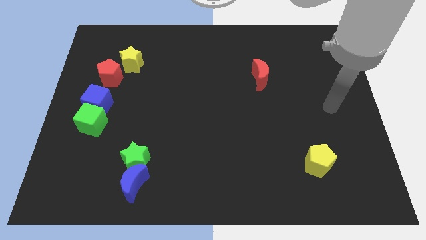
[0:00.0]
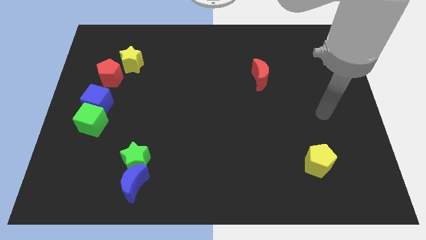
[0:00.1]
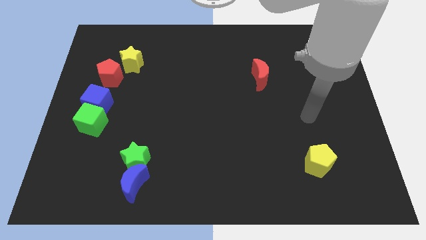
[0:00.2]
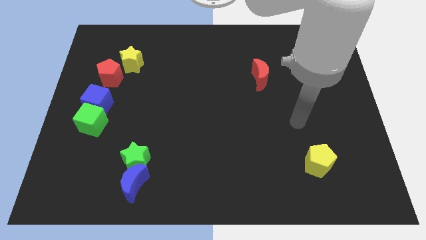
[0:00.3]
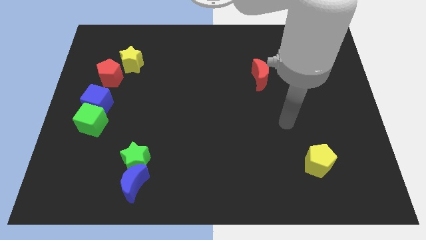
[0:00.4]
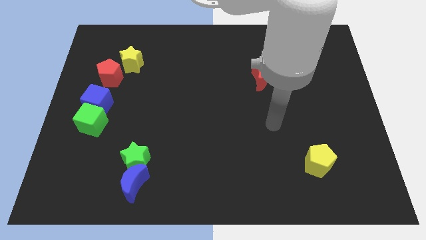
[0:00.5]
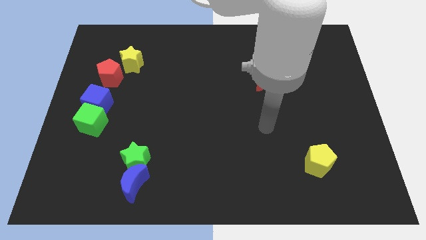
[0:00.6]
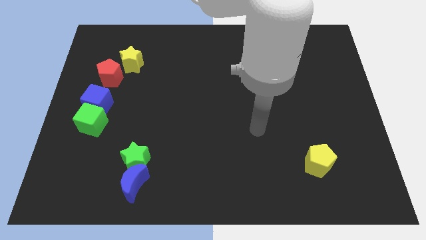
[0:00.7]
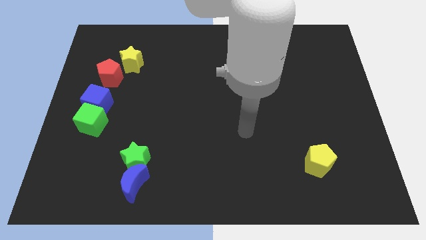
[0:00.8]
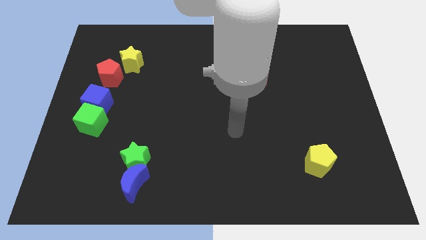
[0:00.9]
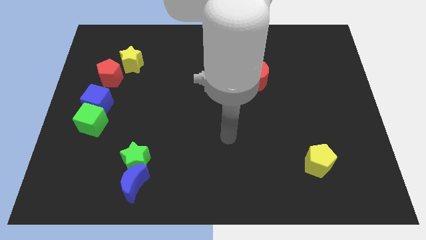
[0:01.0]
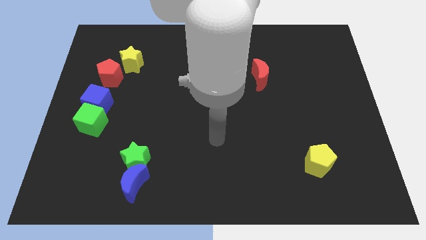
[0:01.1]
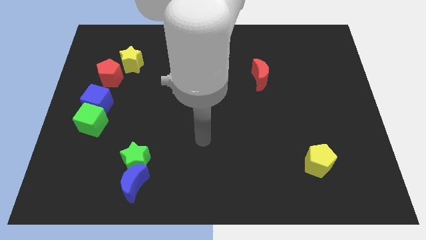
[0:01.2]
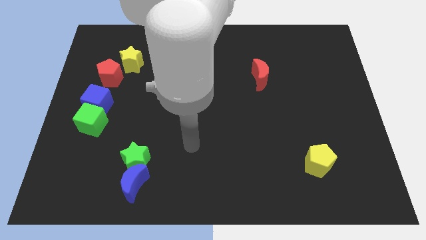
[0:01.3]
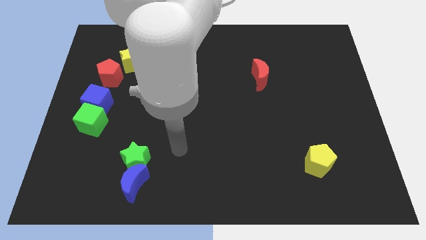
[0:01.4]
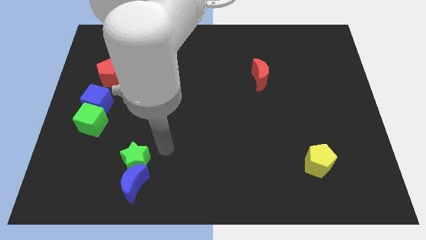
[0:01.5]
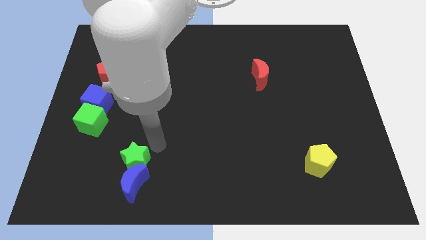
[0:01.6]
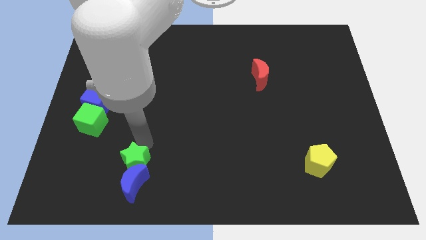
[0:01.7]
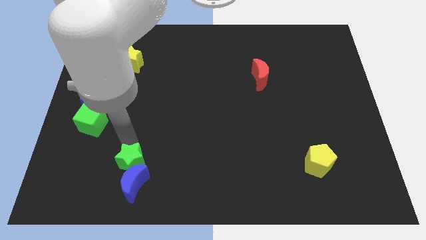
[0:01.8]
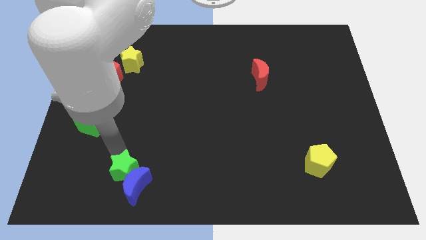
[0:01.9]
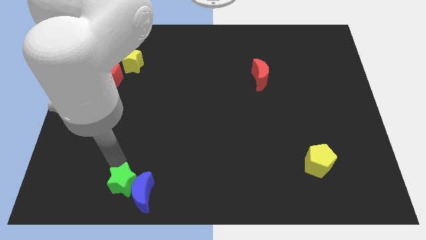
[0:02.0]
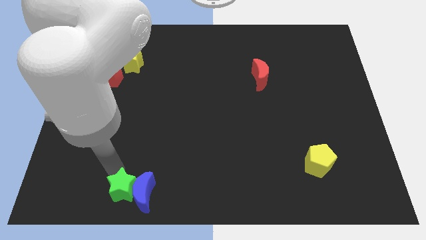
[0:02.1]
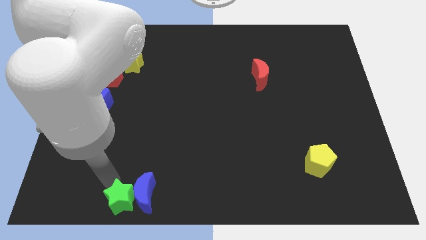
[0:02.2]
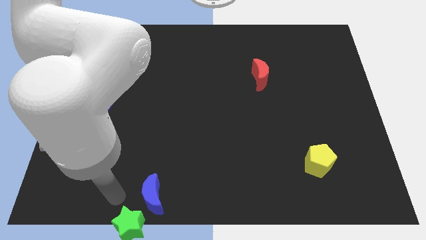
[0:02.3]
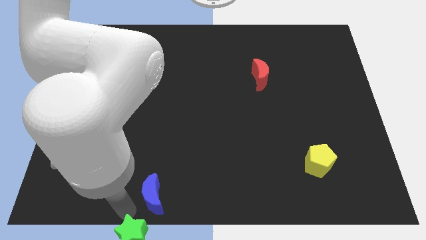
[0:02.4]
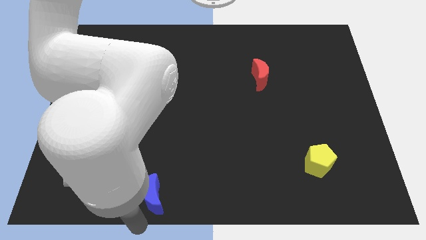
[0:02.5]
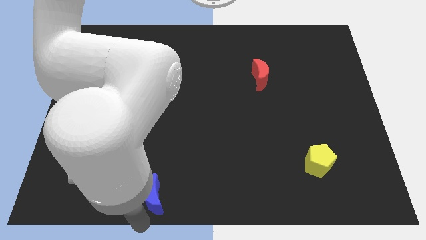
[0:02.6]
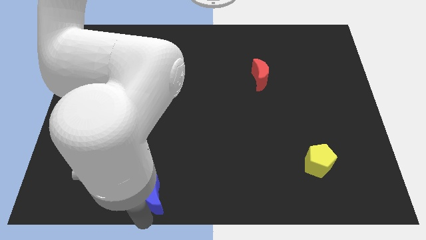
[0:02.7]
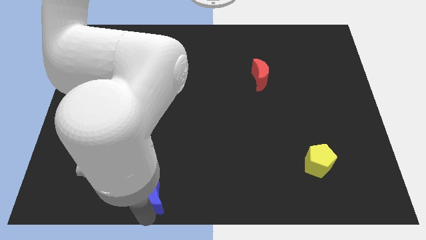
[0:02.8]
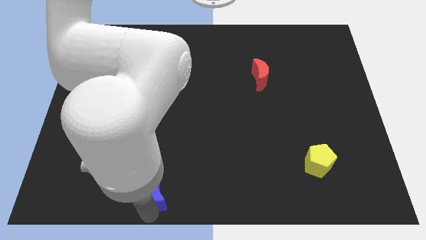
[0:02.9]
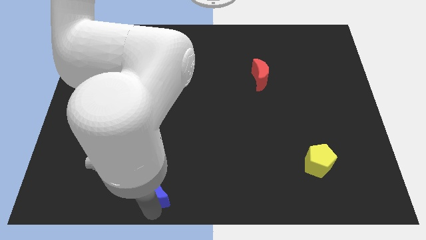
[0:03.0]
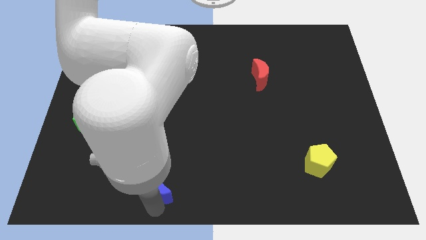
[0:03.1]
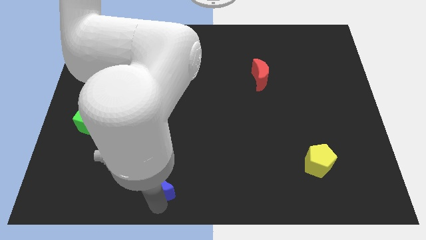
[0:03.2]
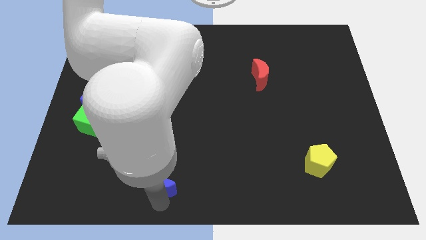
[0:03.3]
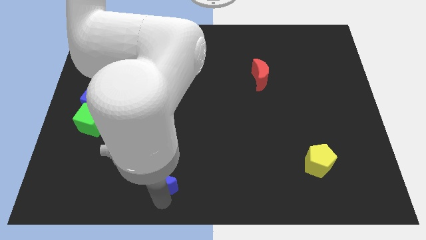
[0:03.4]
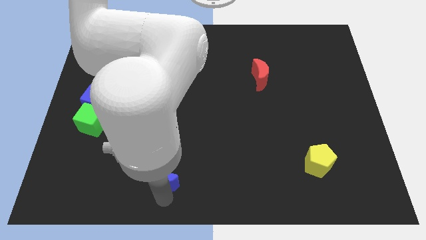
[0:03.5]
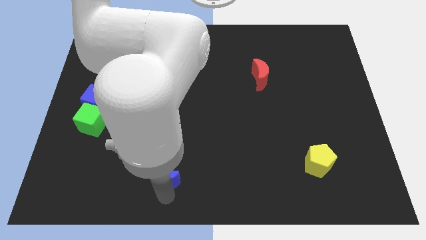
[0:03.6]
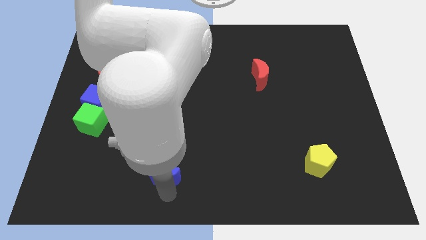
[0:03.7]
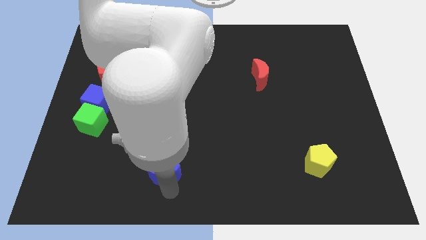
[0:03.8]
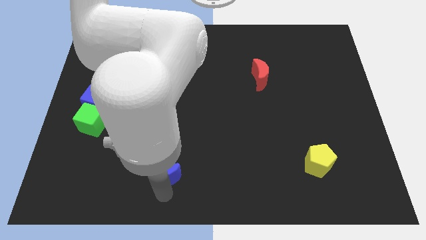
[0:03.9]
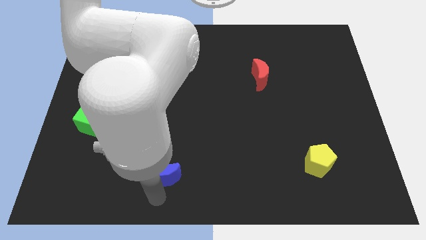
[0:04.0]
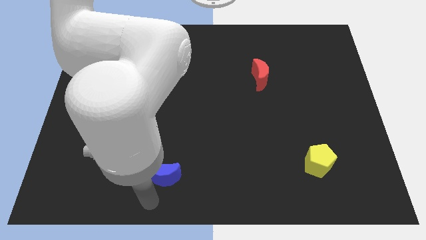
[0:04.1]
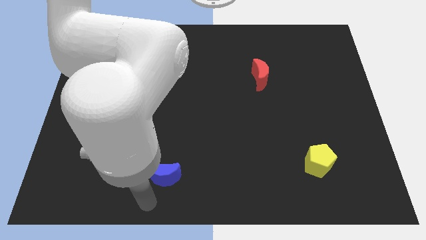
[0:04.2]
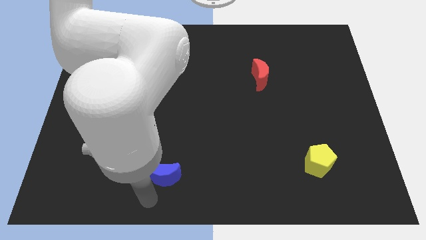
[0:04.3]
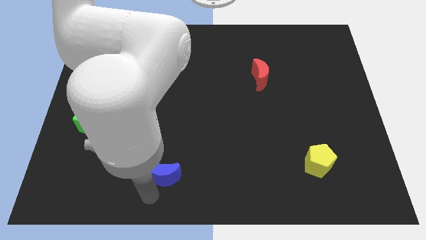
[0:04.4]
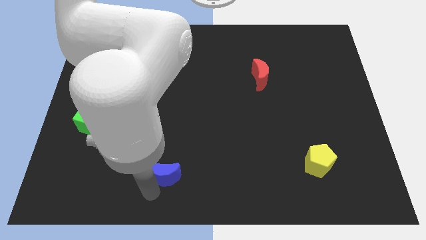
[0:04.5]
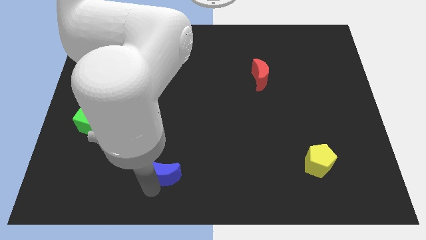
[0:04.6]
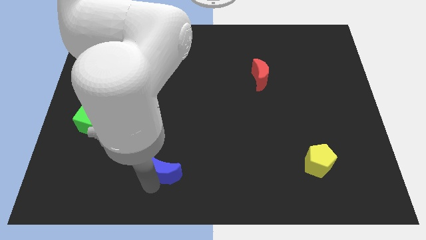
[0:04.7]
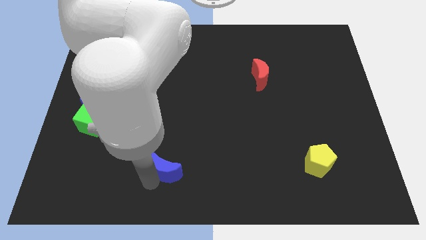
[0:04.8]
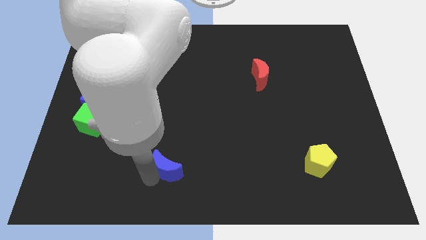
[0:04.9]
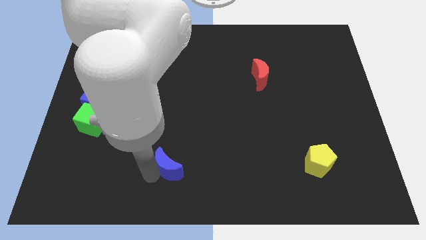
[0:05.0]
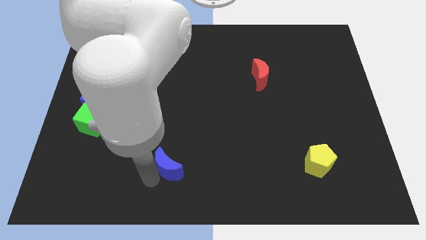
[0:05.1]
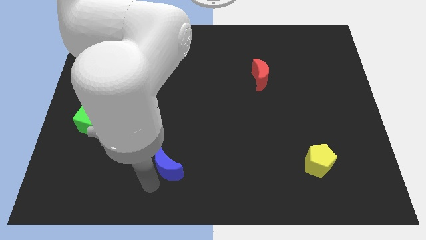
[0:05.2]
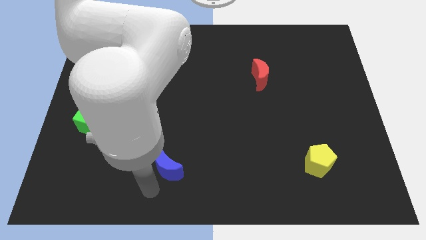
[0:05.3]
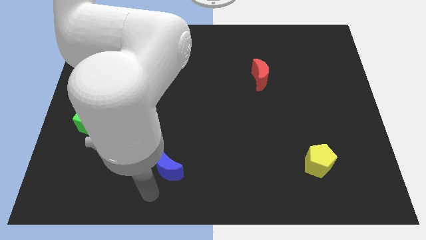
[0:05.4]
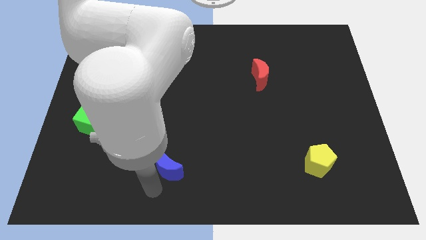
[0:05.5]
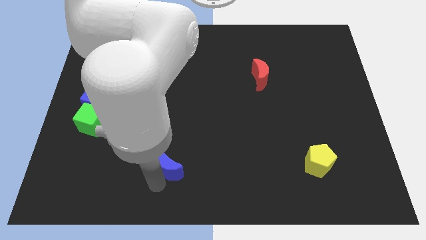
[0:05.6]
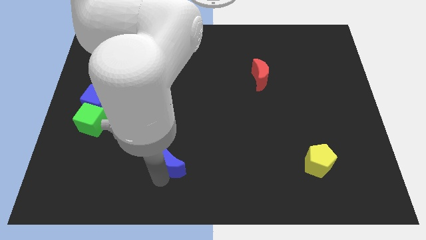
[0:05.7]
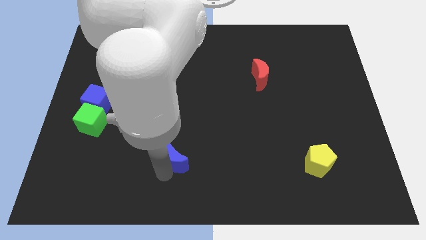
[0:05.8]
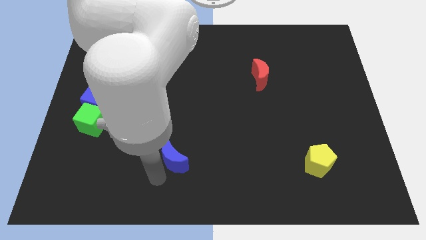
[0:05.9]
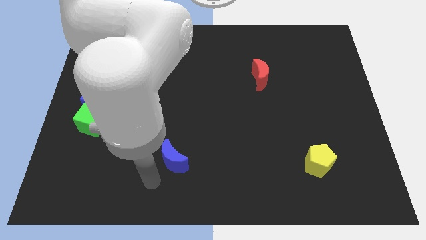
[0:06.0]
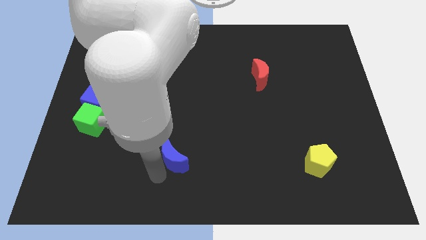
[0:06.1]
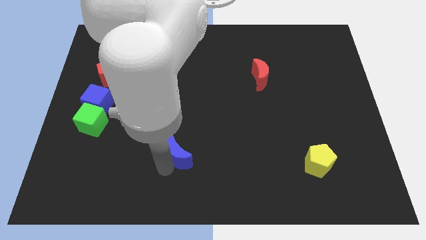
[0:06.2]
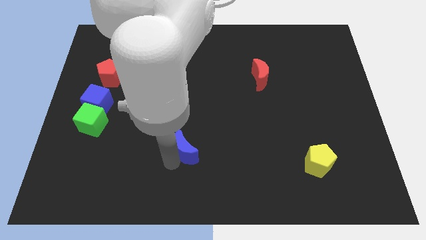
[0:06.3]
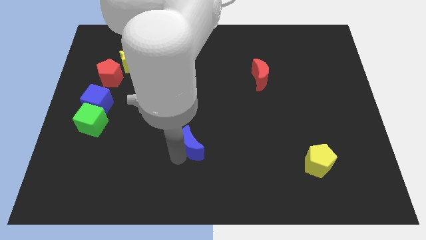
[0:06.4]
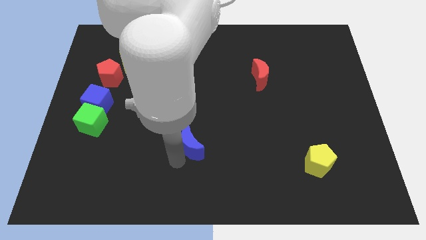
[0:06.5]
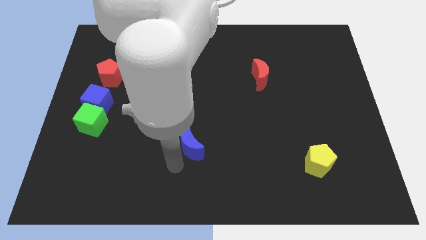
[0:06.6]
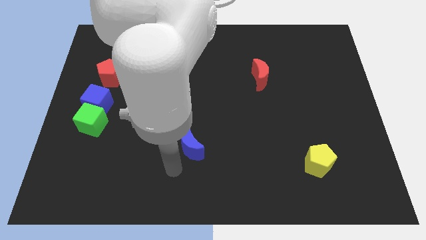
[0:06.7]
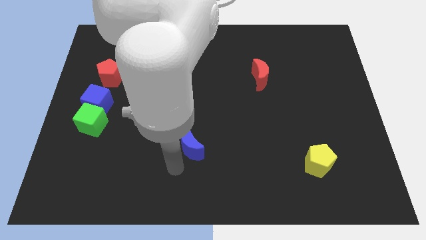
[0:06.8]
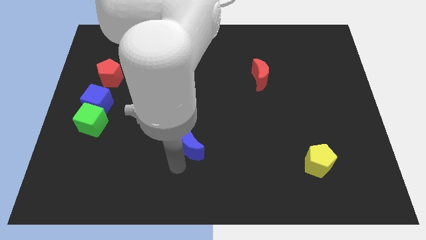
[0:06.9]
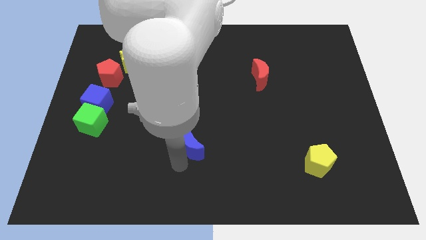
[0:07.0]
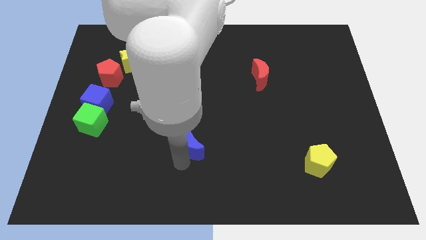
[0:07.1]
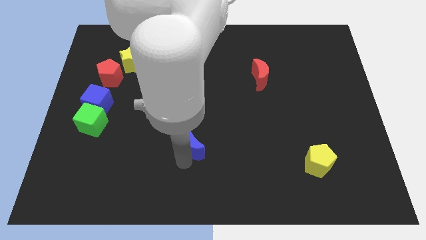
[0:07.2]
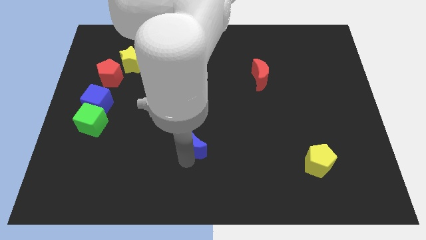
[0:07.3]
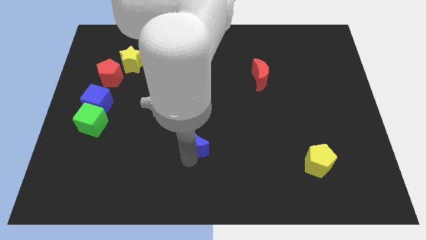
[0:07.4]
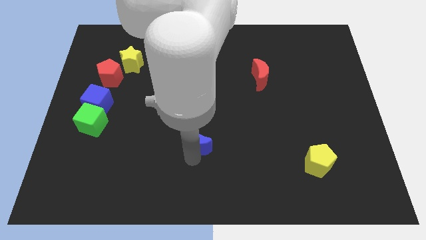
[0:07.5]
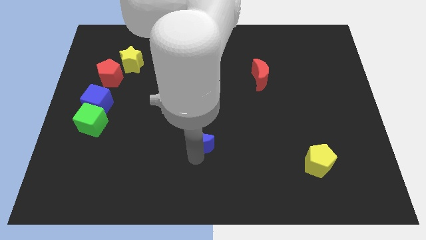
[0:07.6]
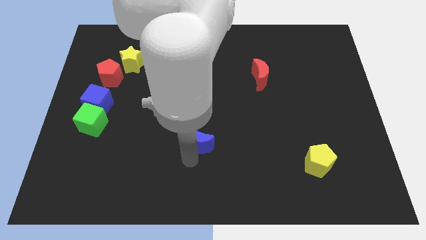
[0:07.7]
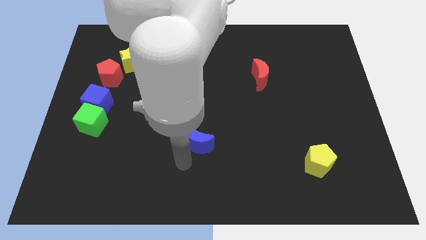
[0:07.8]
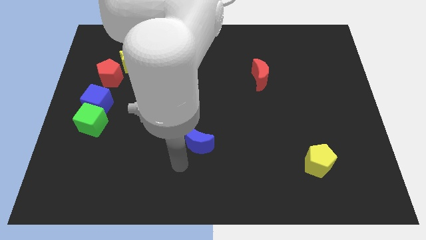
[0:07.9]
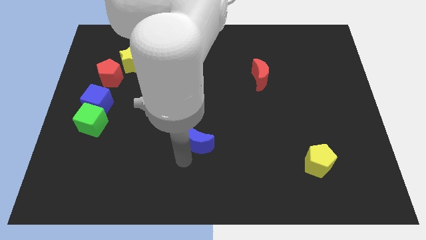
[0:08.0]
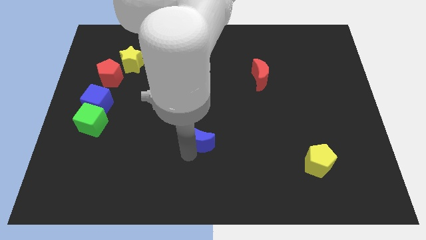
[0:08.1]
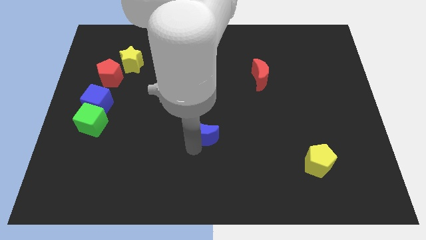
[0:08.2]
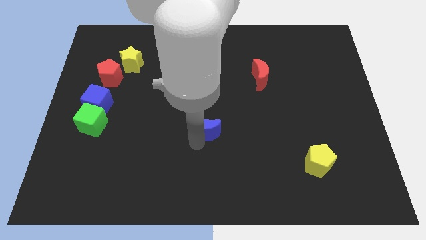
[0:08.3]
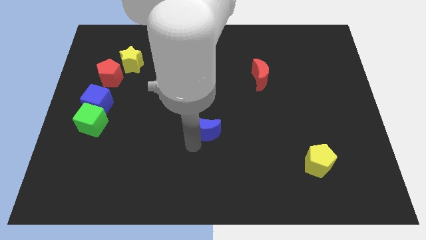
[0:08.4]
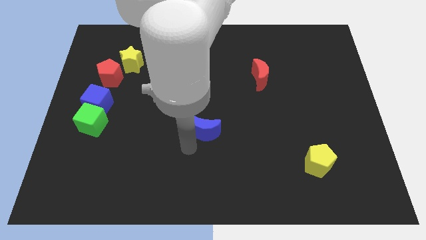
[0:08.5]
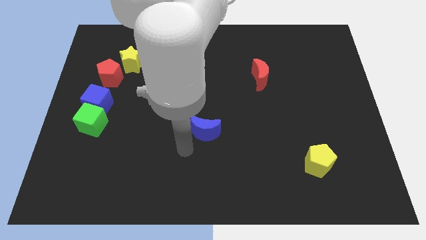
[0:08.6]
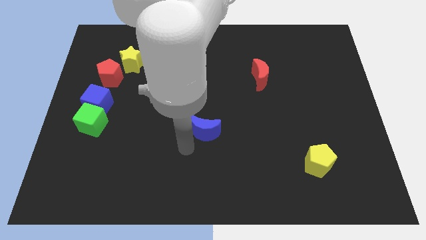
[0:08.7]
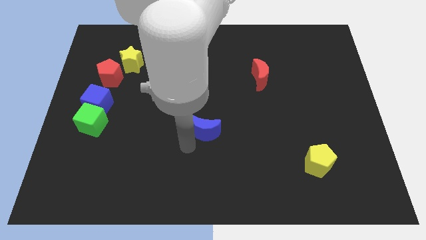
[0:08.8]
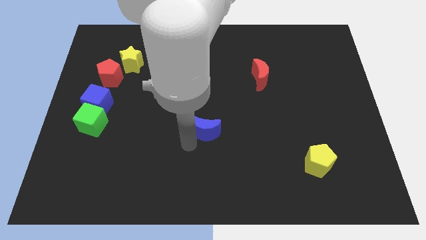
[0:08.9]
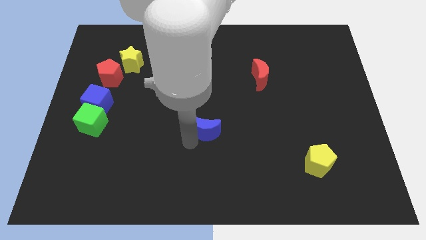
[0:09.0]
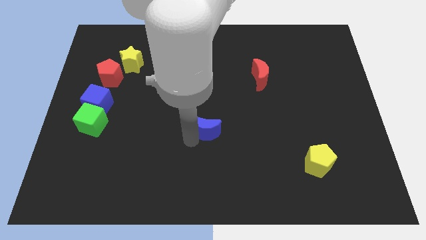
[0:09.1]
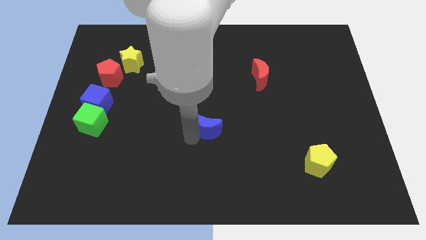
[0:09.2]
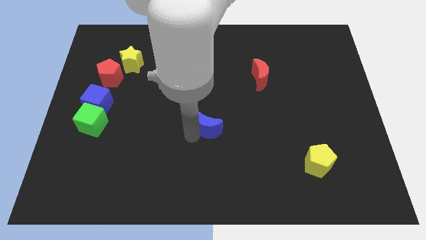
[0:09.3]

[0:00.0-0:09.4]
move the blue moon up and right
